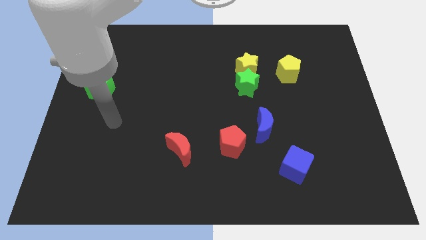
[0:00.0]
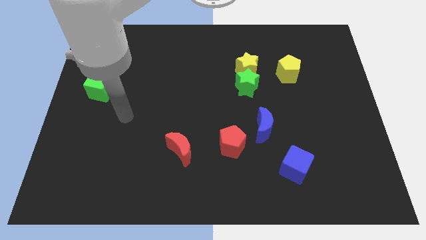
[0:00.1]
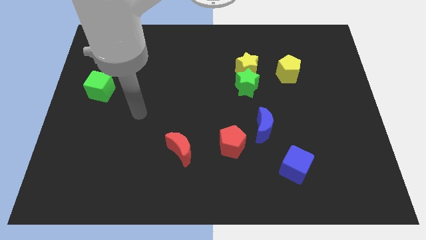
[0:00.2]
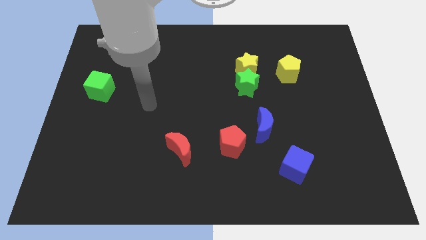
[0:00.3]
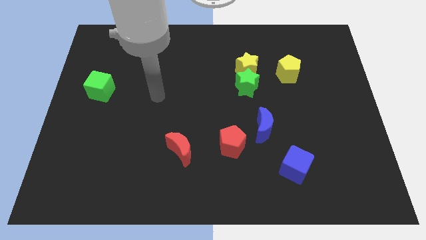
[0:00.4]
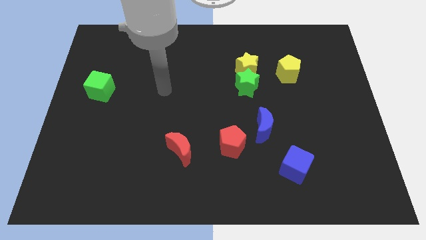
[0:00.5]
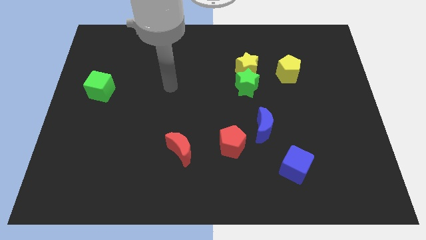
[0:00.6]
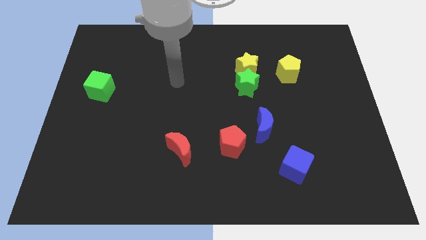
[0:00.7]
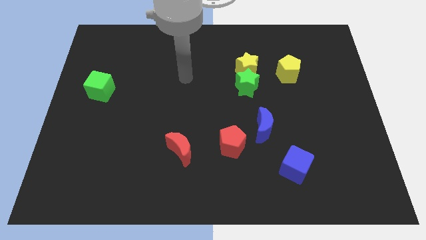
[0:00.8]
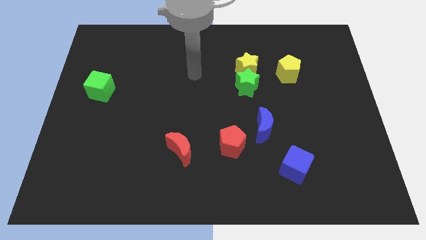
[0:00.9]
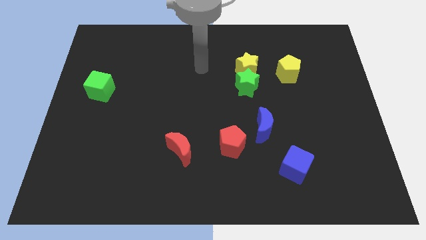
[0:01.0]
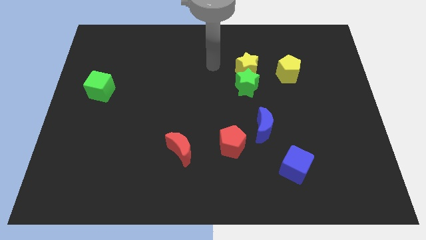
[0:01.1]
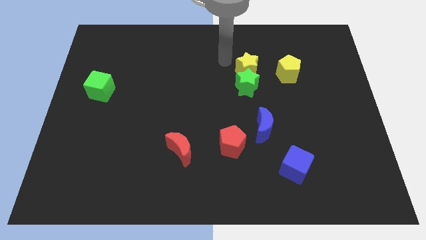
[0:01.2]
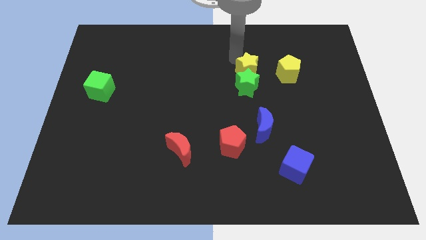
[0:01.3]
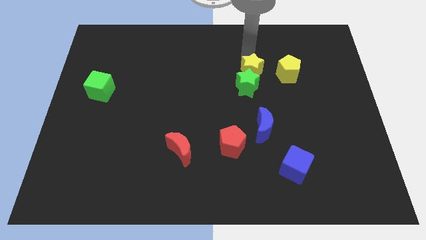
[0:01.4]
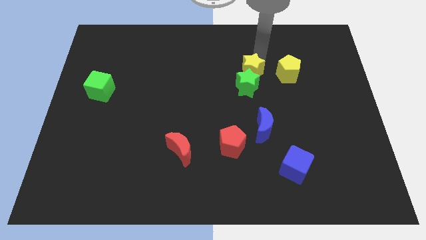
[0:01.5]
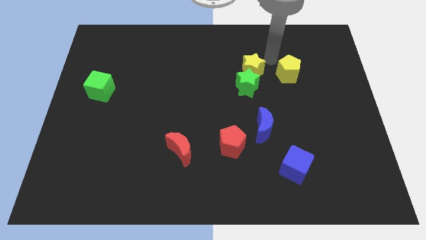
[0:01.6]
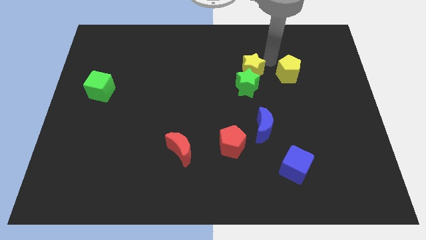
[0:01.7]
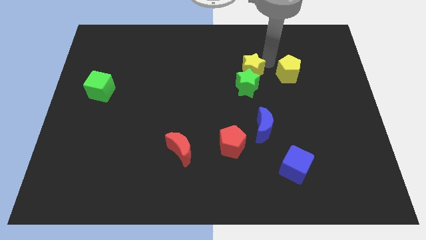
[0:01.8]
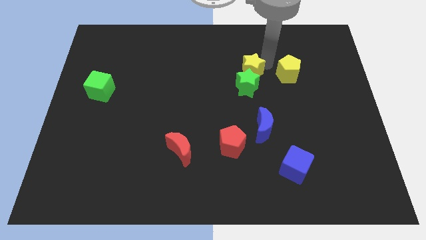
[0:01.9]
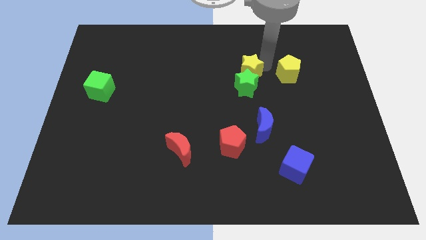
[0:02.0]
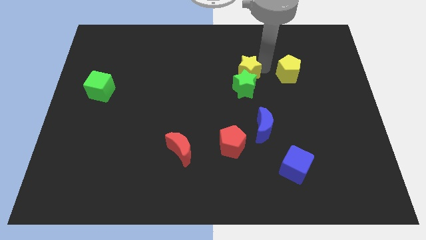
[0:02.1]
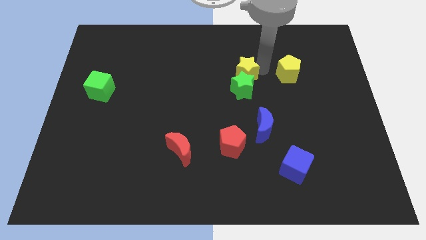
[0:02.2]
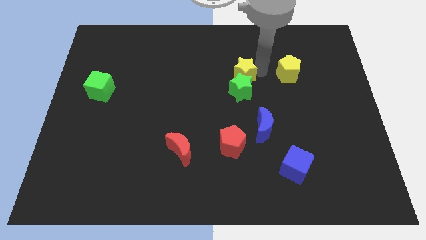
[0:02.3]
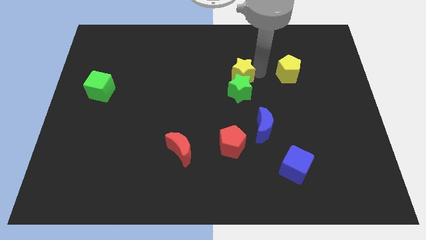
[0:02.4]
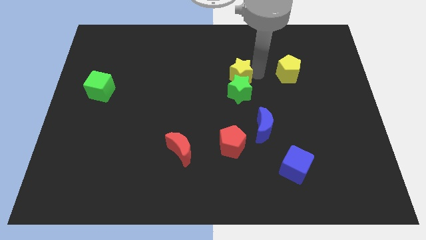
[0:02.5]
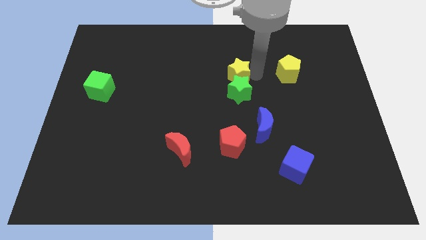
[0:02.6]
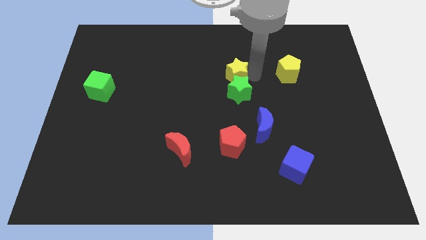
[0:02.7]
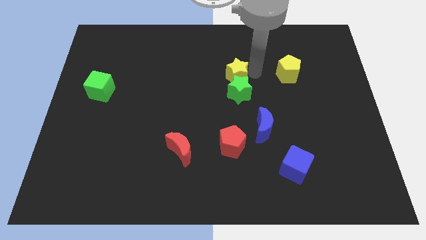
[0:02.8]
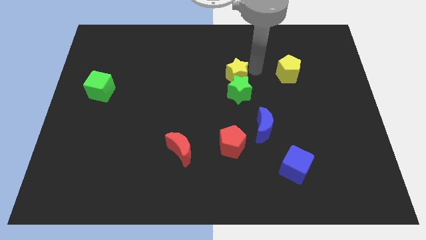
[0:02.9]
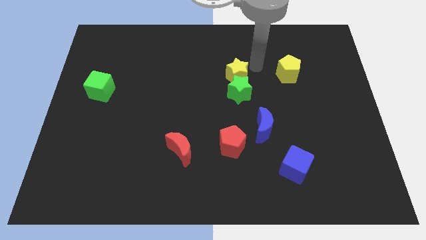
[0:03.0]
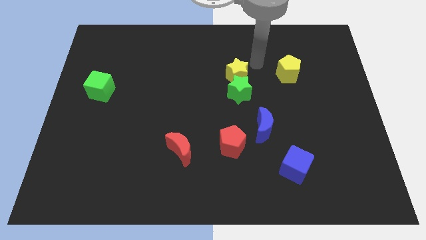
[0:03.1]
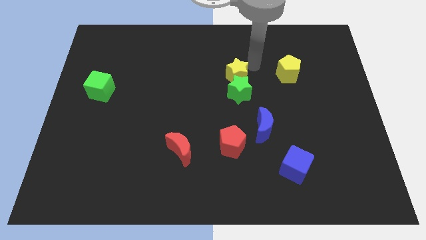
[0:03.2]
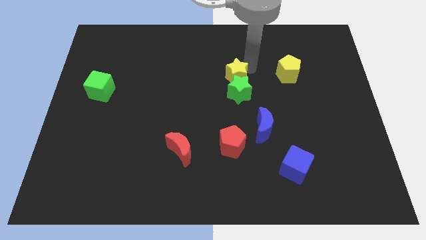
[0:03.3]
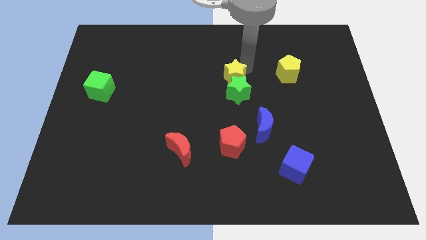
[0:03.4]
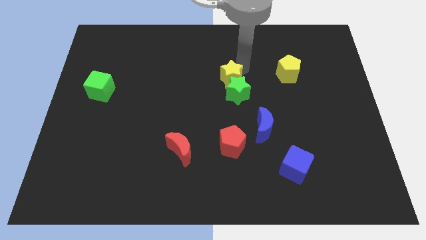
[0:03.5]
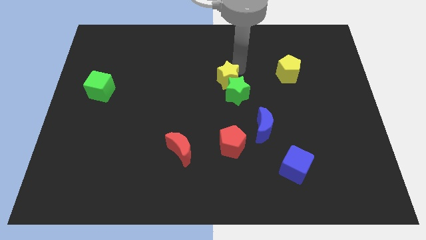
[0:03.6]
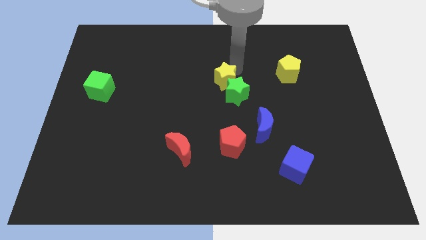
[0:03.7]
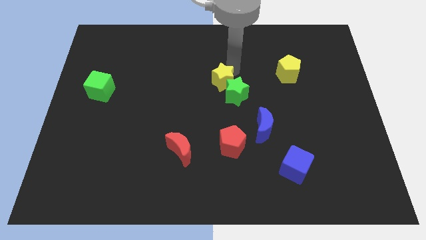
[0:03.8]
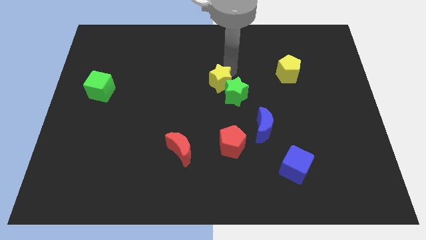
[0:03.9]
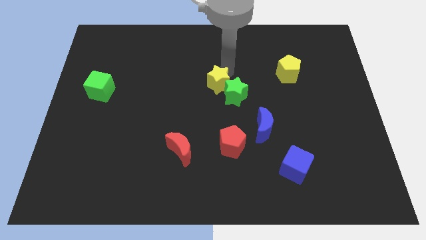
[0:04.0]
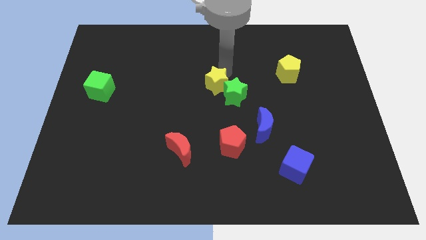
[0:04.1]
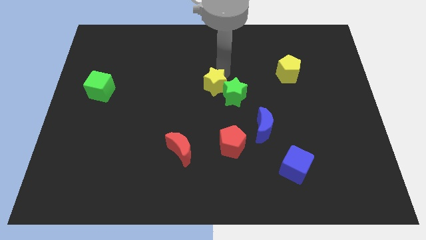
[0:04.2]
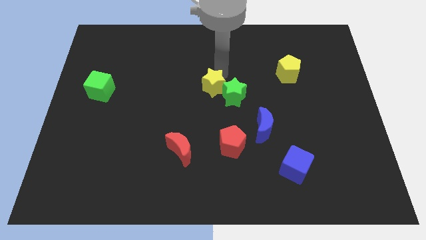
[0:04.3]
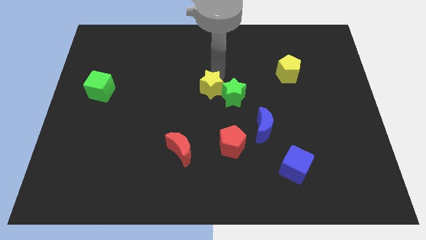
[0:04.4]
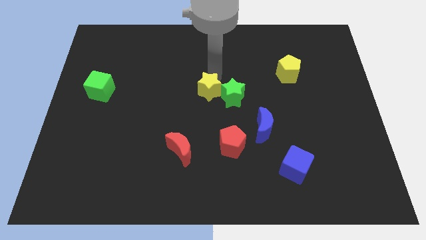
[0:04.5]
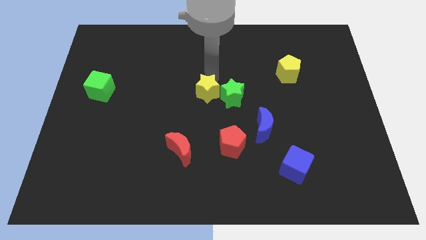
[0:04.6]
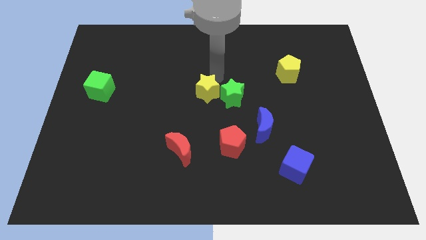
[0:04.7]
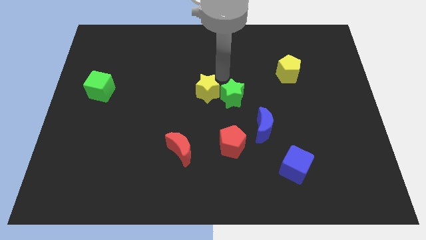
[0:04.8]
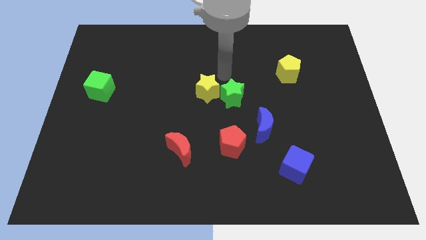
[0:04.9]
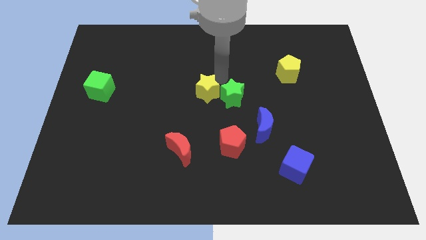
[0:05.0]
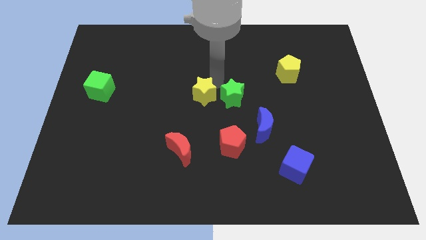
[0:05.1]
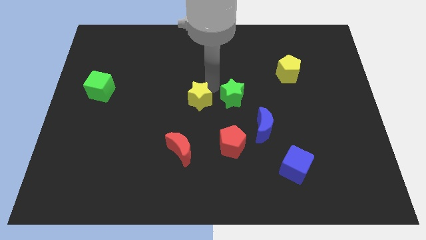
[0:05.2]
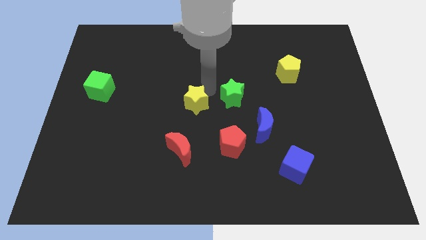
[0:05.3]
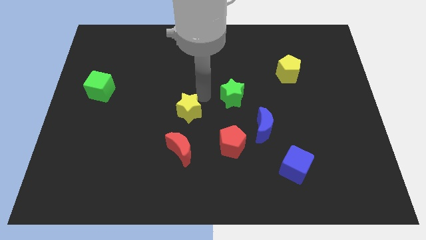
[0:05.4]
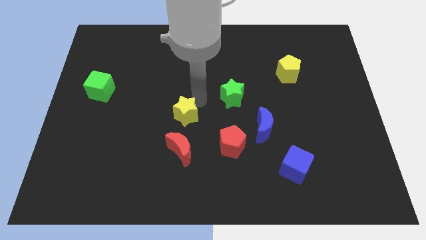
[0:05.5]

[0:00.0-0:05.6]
slide the yellow star down and to the left diagonally

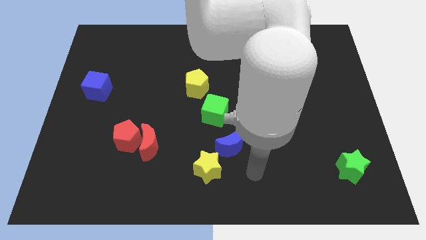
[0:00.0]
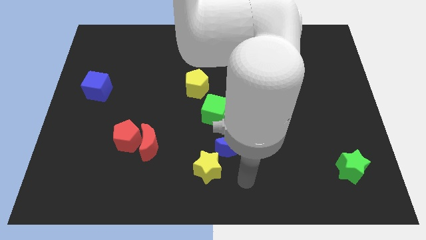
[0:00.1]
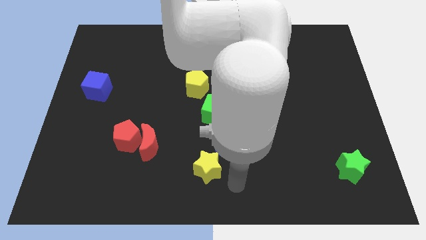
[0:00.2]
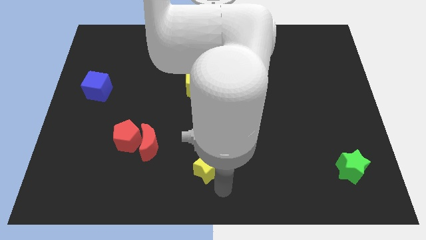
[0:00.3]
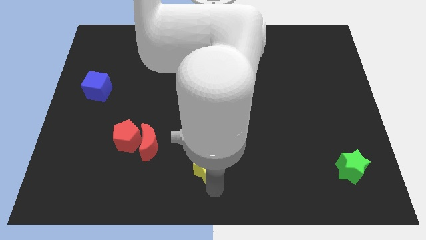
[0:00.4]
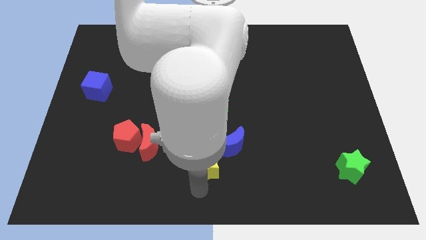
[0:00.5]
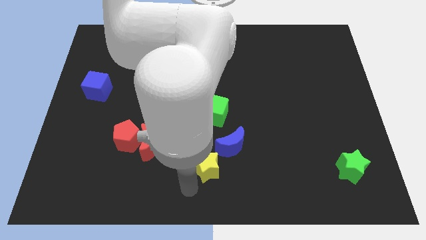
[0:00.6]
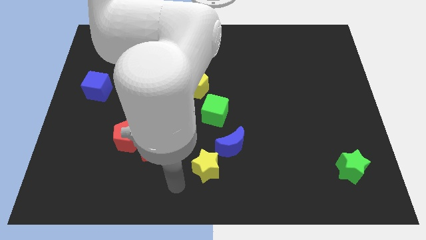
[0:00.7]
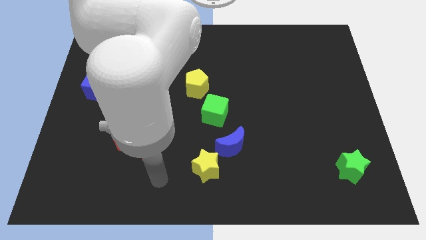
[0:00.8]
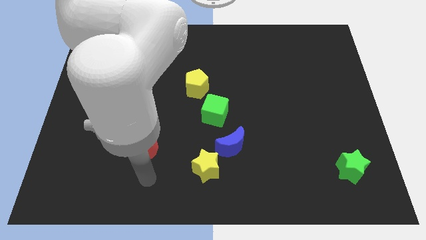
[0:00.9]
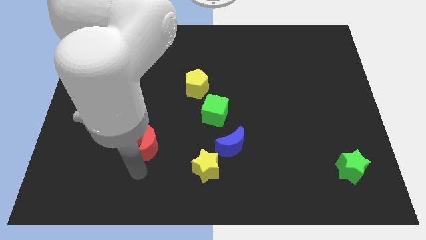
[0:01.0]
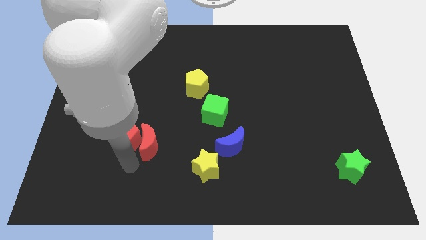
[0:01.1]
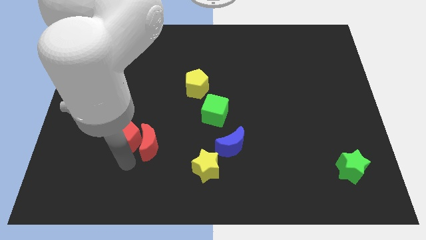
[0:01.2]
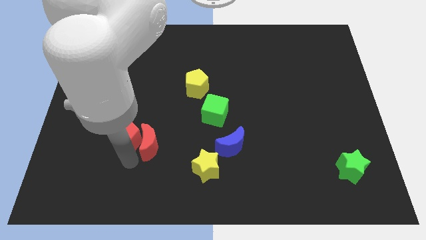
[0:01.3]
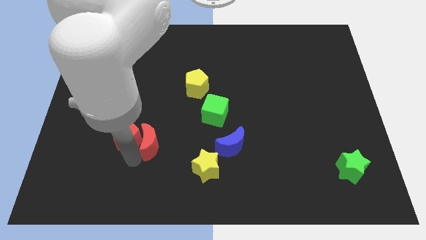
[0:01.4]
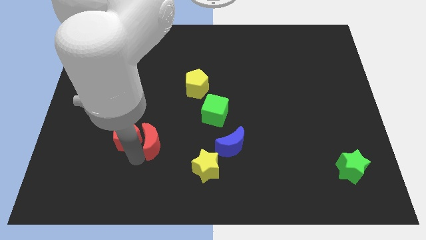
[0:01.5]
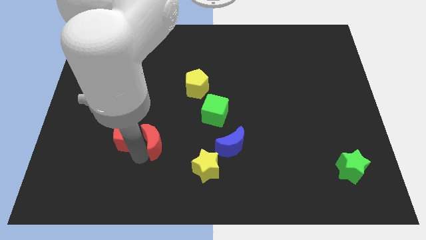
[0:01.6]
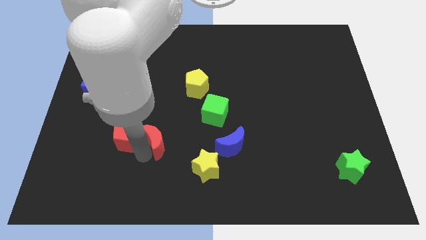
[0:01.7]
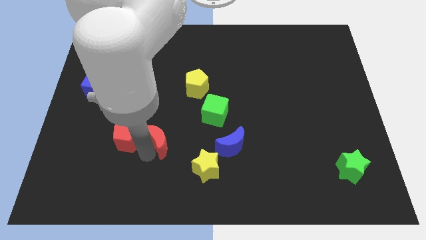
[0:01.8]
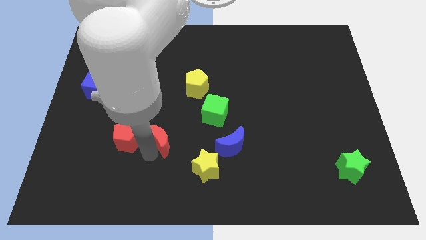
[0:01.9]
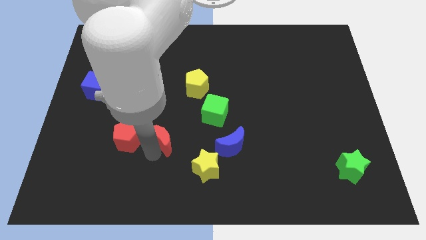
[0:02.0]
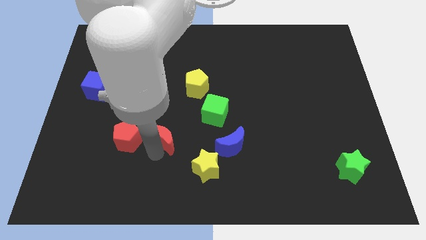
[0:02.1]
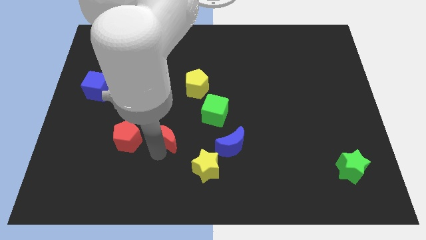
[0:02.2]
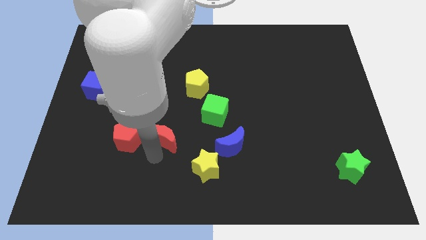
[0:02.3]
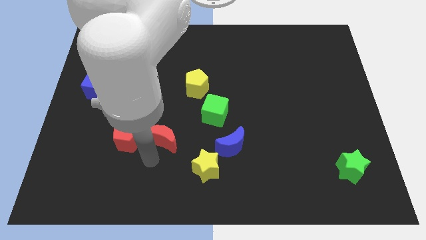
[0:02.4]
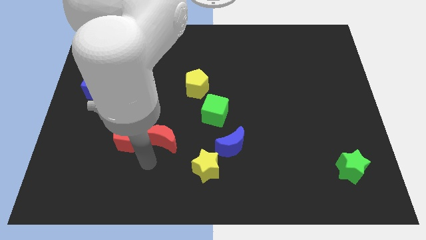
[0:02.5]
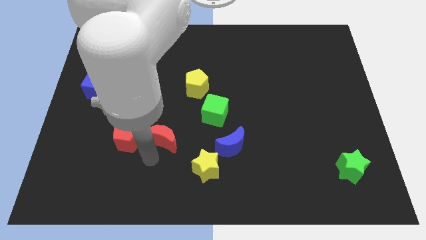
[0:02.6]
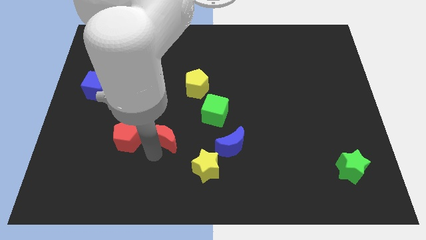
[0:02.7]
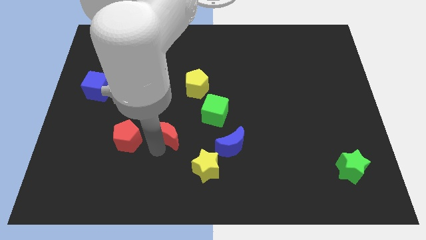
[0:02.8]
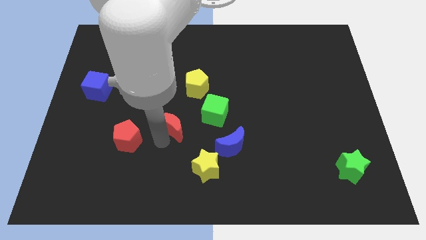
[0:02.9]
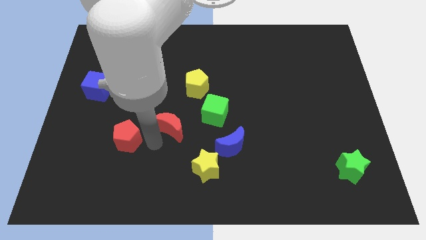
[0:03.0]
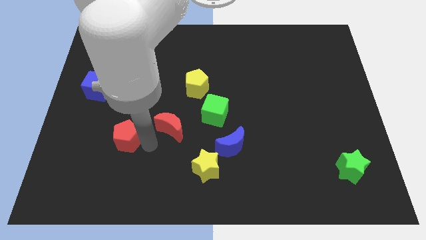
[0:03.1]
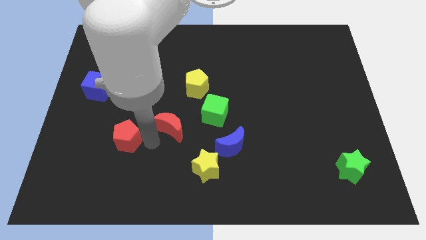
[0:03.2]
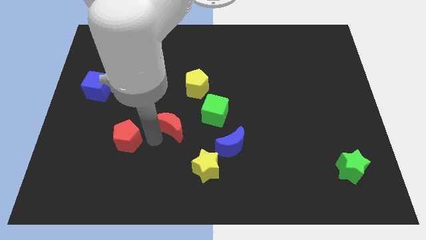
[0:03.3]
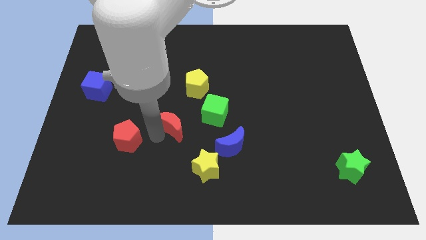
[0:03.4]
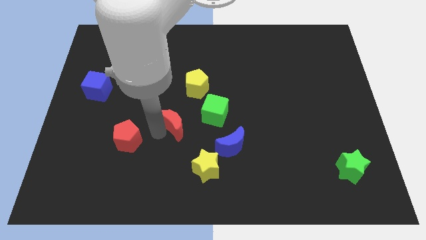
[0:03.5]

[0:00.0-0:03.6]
push the red moon up and to the right diagonally a bit
